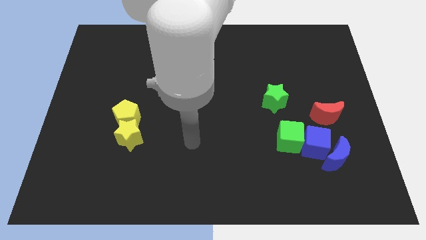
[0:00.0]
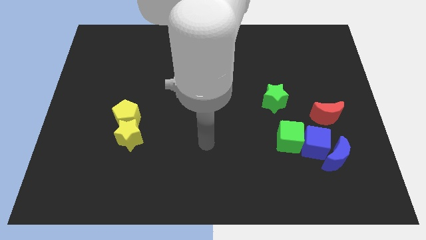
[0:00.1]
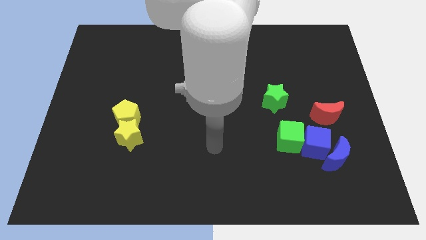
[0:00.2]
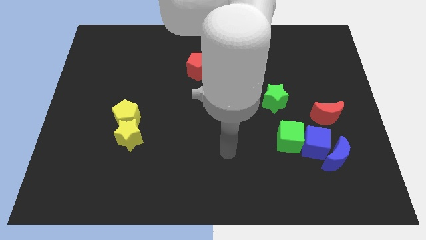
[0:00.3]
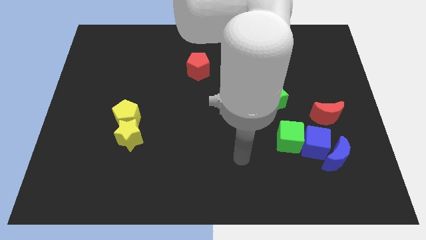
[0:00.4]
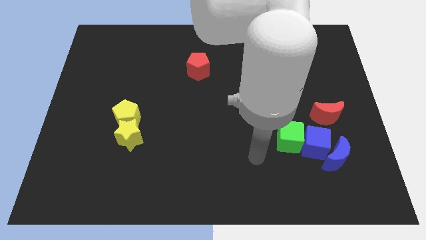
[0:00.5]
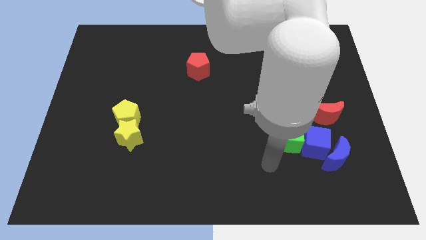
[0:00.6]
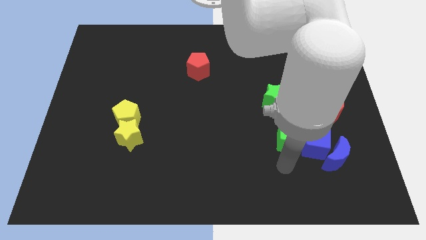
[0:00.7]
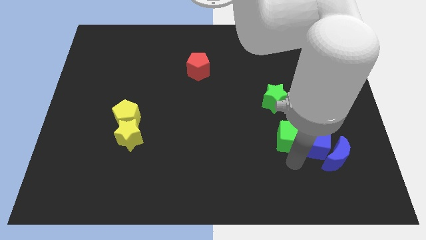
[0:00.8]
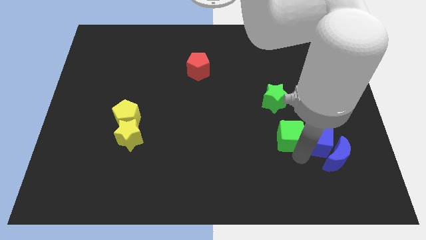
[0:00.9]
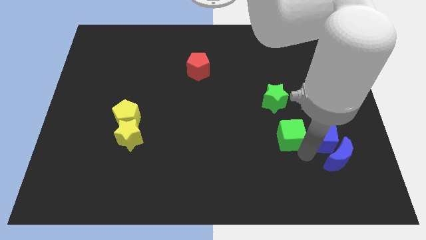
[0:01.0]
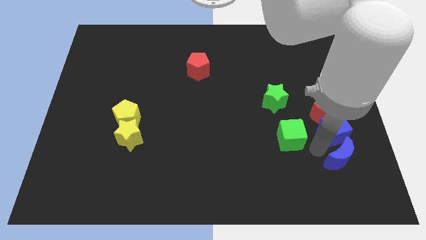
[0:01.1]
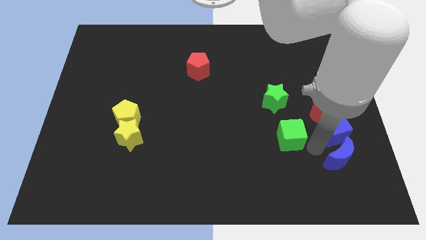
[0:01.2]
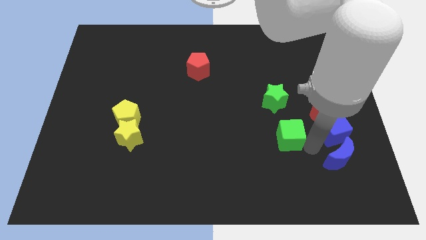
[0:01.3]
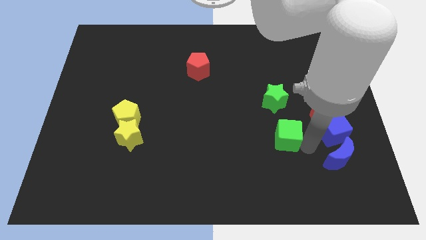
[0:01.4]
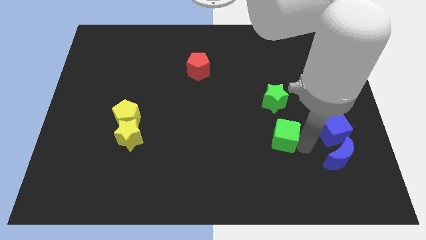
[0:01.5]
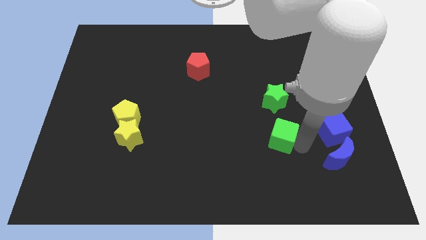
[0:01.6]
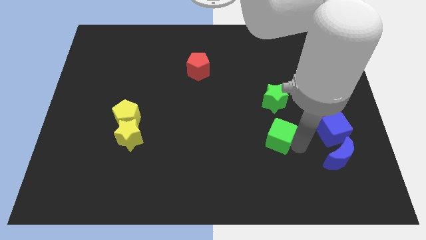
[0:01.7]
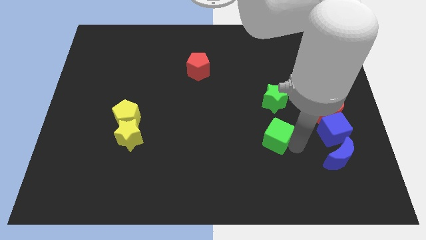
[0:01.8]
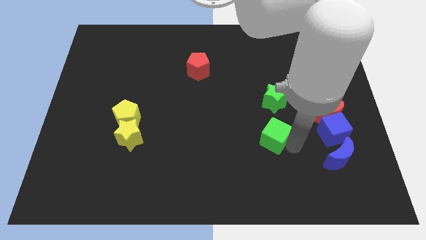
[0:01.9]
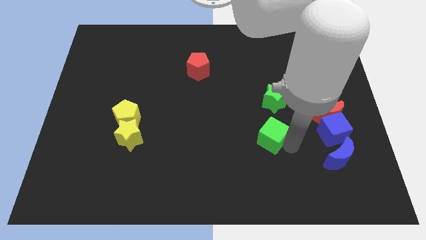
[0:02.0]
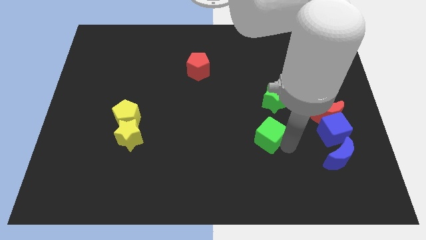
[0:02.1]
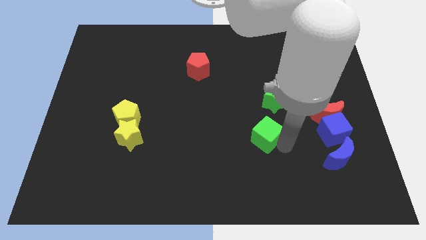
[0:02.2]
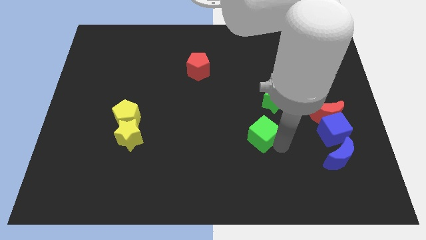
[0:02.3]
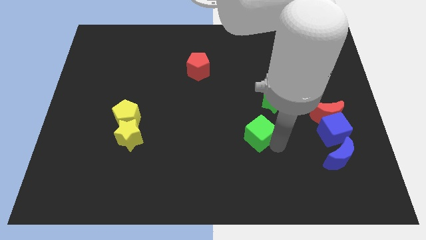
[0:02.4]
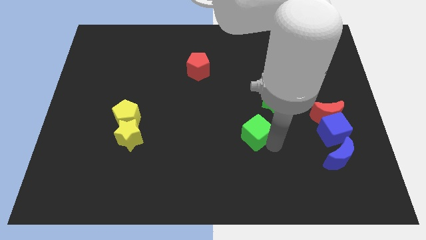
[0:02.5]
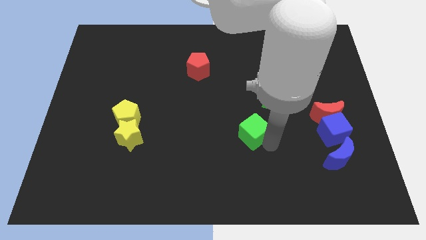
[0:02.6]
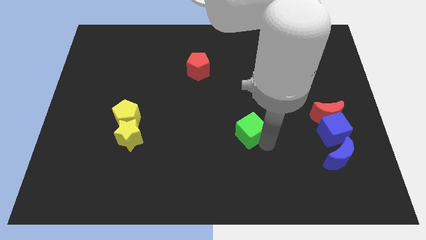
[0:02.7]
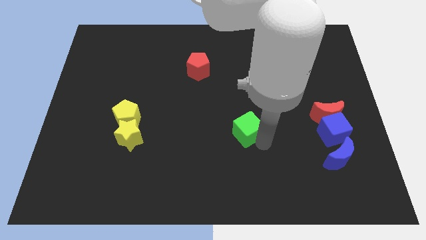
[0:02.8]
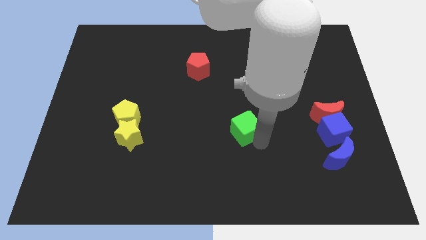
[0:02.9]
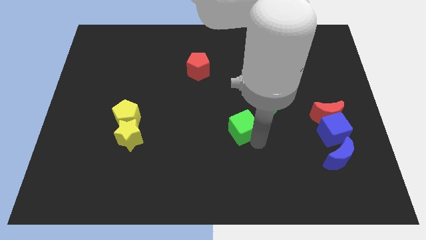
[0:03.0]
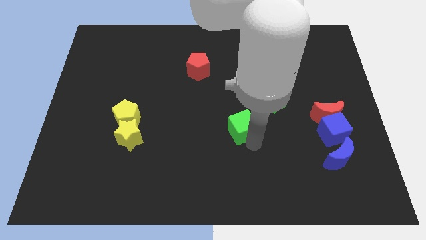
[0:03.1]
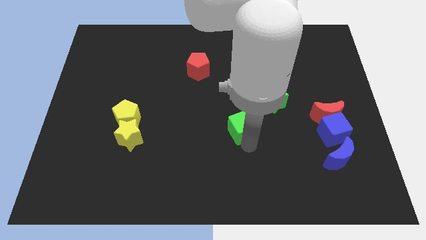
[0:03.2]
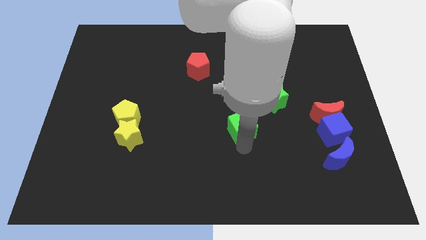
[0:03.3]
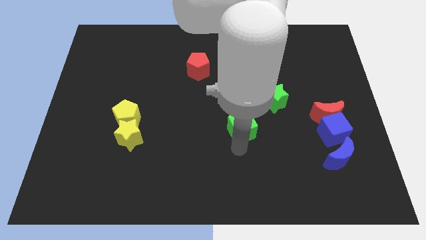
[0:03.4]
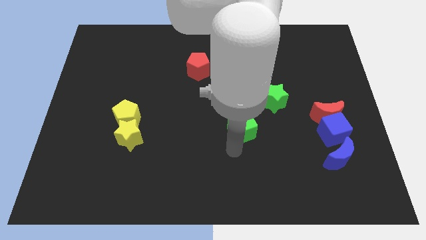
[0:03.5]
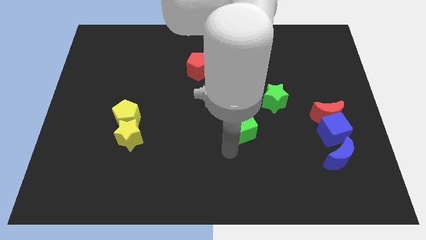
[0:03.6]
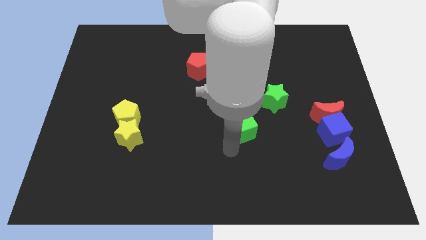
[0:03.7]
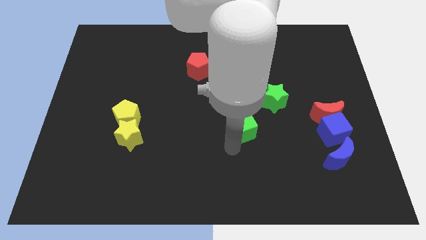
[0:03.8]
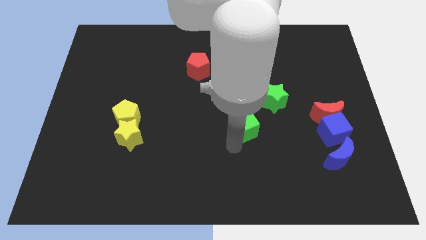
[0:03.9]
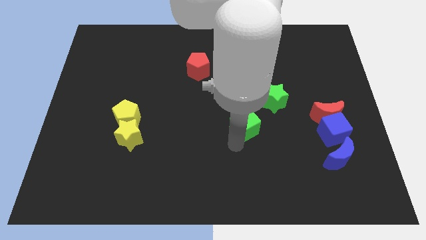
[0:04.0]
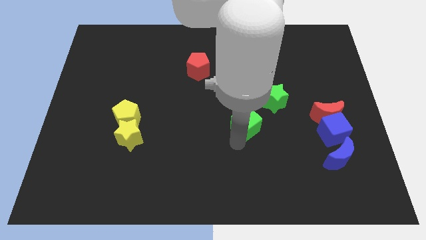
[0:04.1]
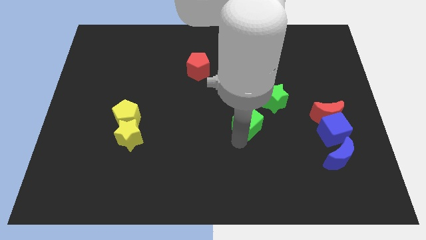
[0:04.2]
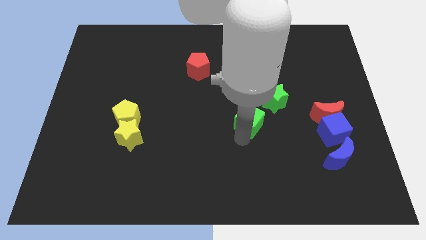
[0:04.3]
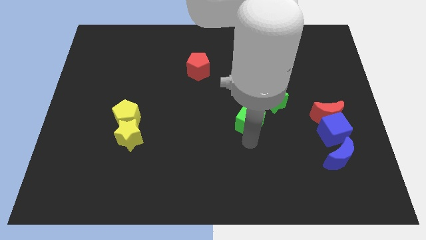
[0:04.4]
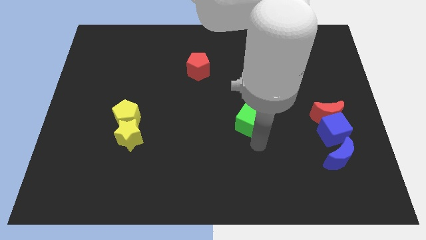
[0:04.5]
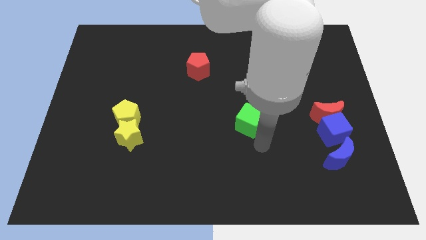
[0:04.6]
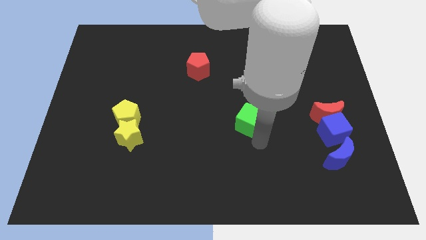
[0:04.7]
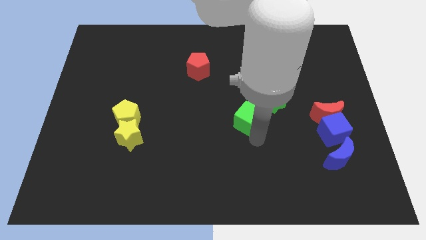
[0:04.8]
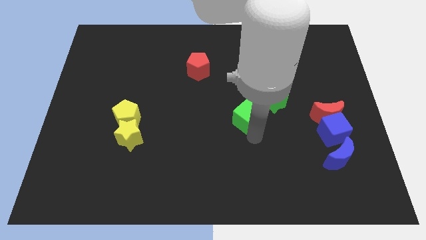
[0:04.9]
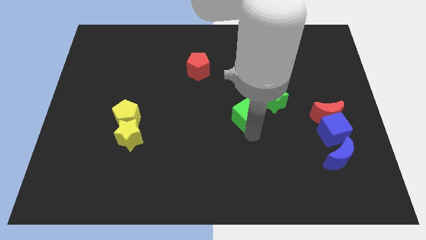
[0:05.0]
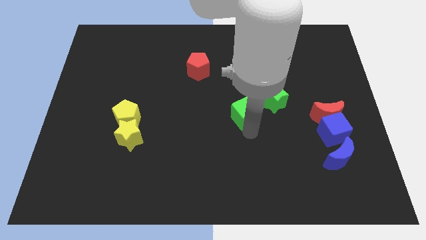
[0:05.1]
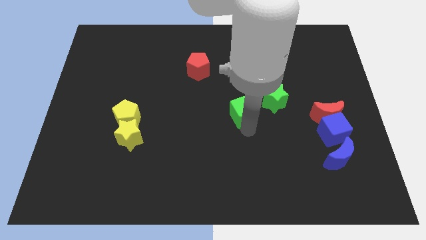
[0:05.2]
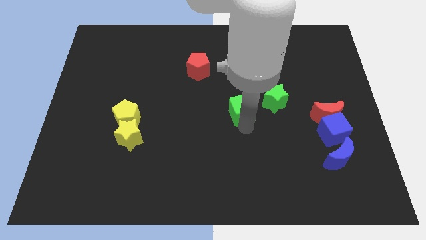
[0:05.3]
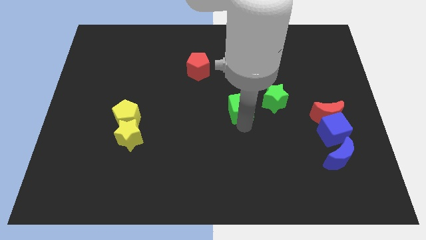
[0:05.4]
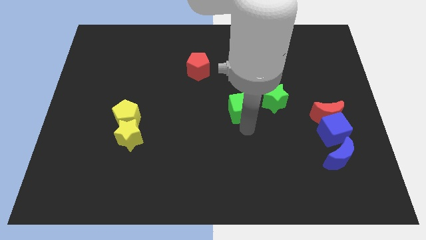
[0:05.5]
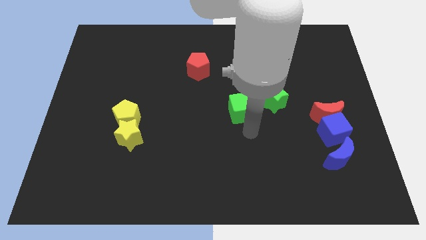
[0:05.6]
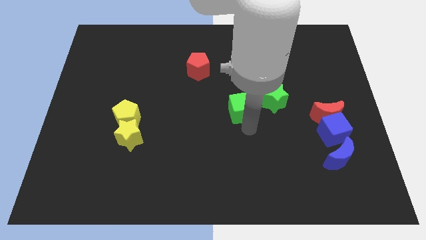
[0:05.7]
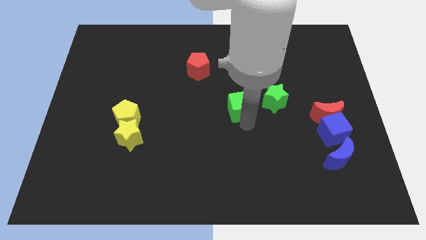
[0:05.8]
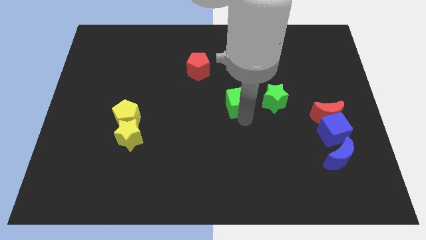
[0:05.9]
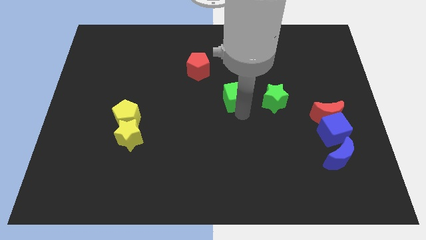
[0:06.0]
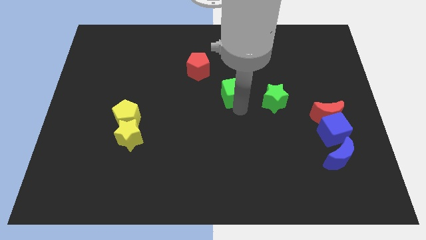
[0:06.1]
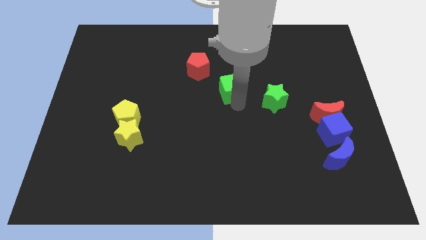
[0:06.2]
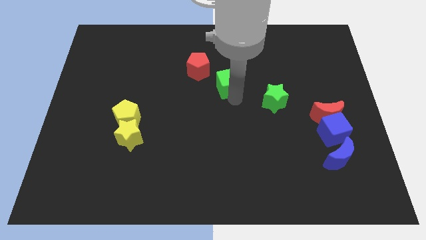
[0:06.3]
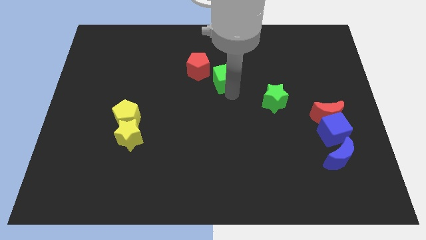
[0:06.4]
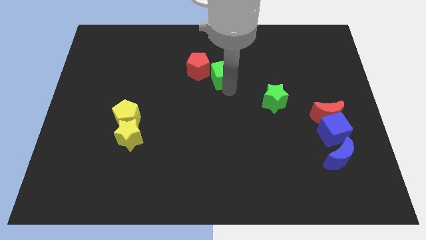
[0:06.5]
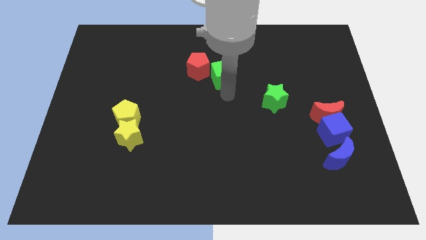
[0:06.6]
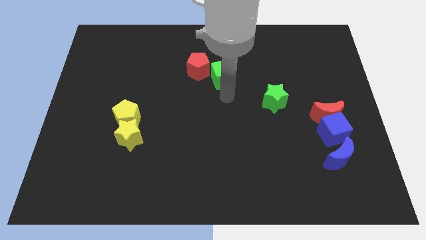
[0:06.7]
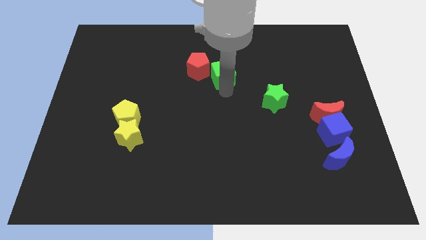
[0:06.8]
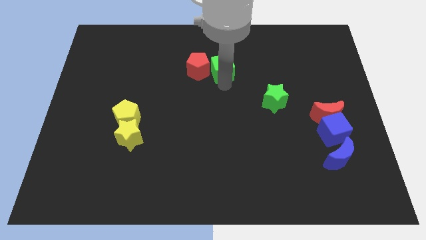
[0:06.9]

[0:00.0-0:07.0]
move the green cube diagonally up and to the right of the red pentagon

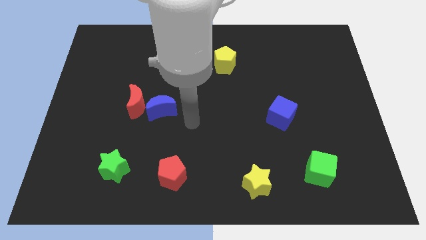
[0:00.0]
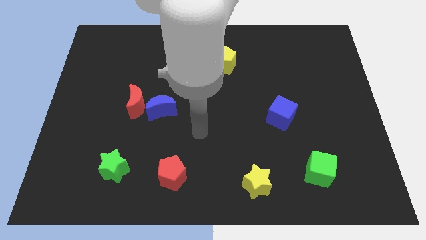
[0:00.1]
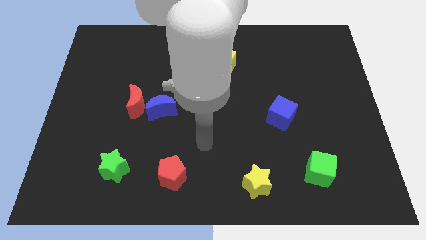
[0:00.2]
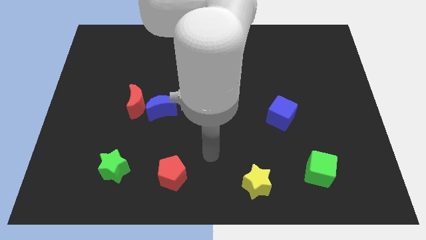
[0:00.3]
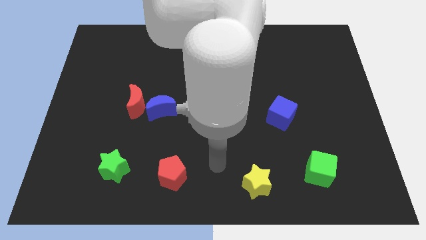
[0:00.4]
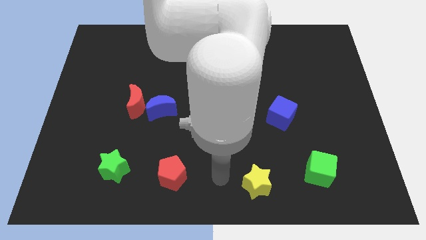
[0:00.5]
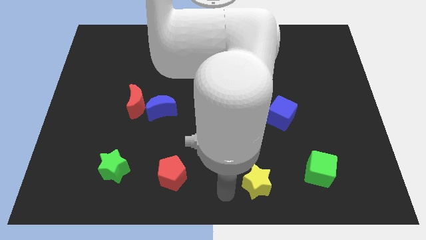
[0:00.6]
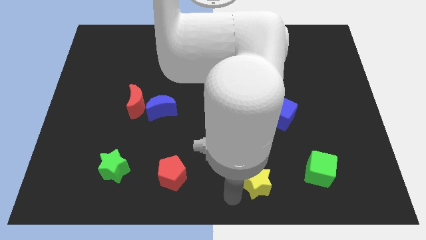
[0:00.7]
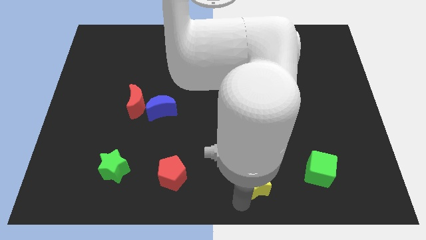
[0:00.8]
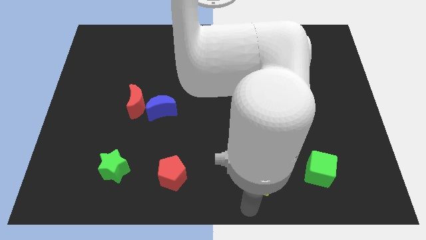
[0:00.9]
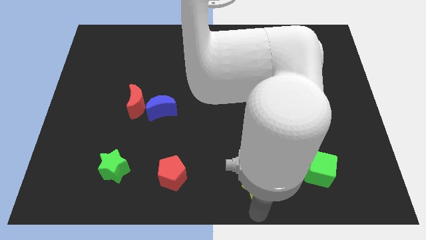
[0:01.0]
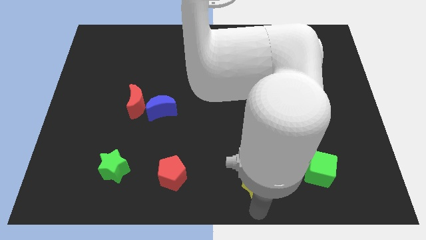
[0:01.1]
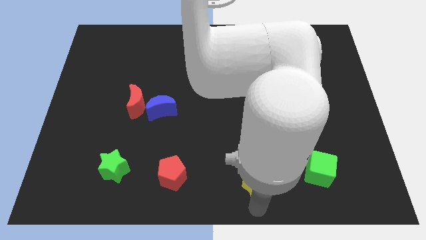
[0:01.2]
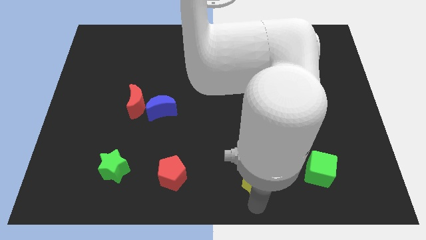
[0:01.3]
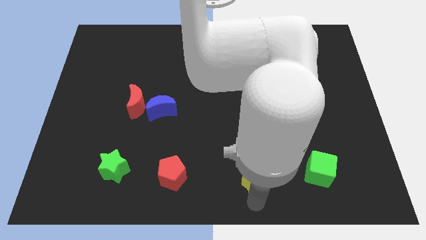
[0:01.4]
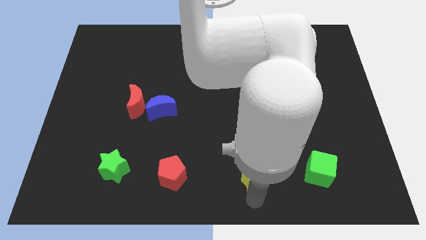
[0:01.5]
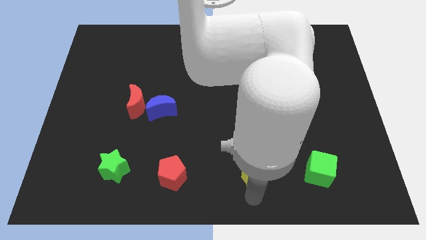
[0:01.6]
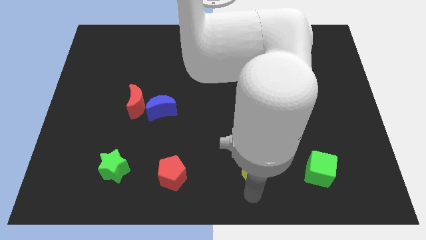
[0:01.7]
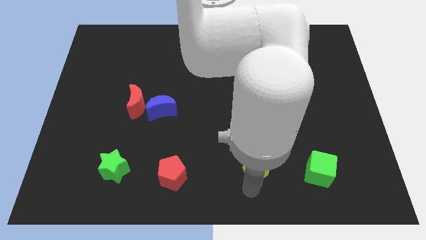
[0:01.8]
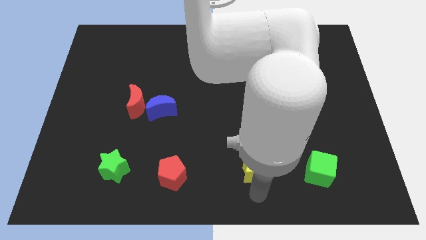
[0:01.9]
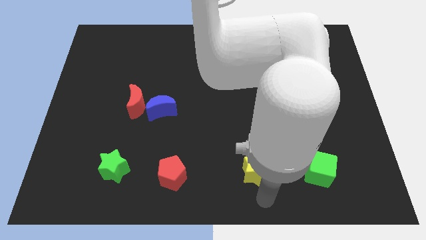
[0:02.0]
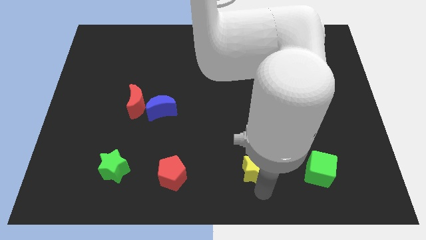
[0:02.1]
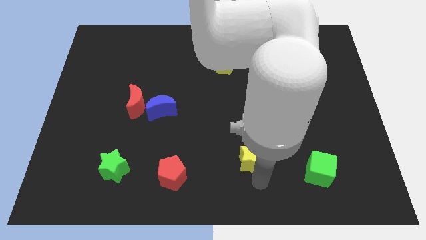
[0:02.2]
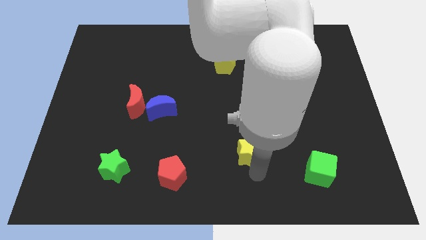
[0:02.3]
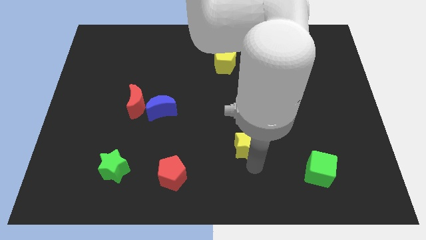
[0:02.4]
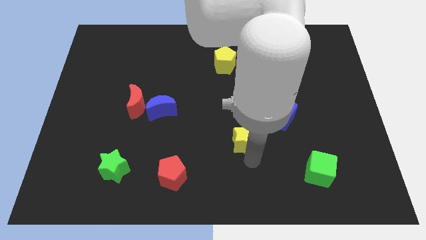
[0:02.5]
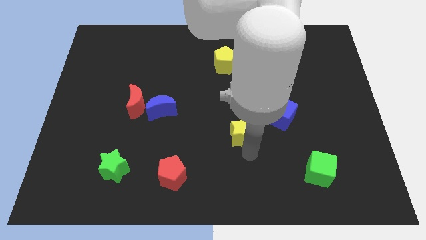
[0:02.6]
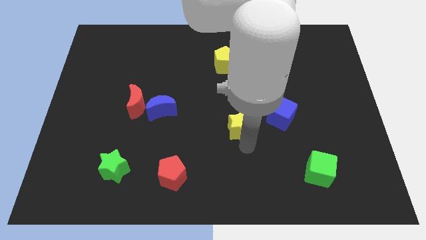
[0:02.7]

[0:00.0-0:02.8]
slide the yellow star to the left of the blue cube
